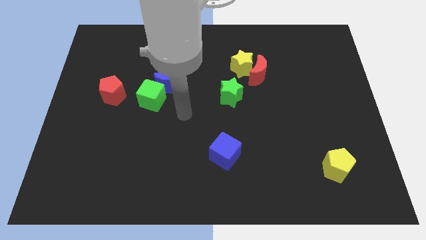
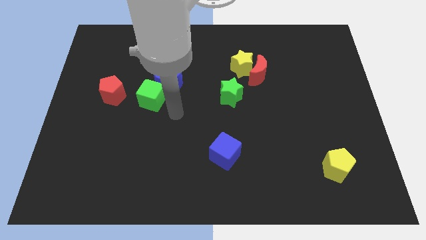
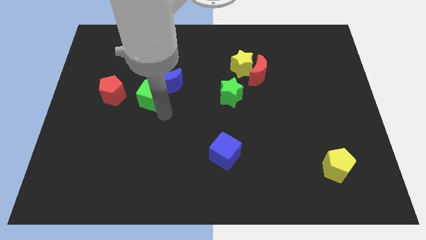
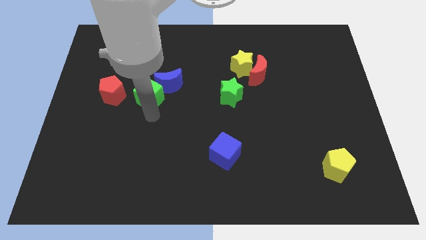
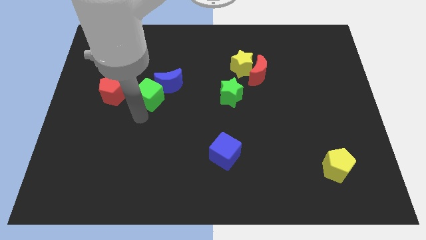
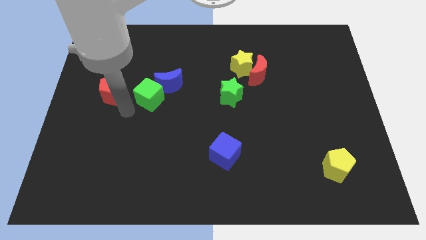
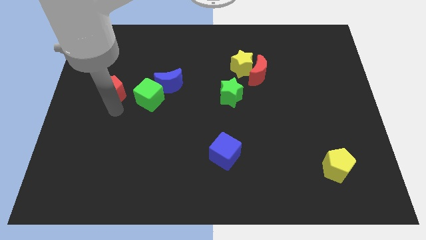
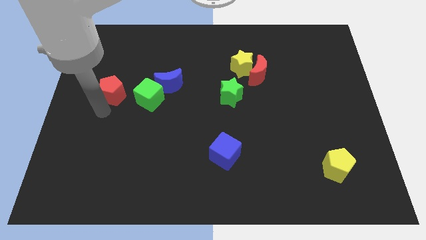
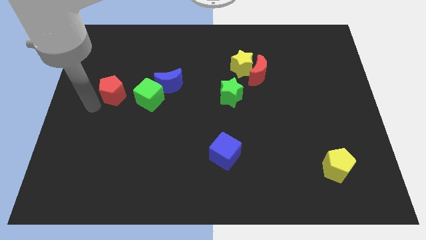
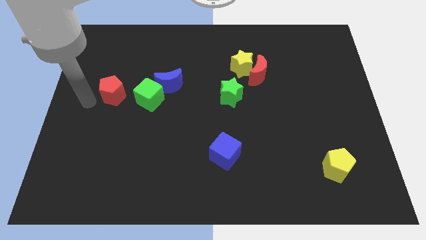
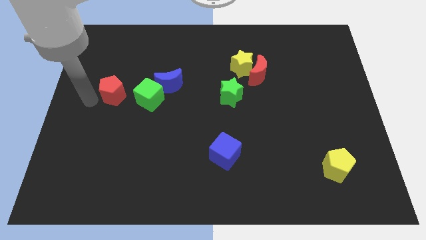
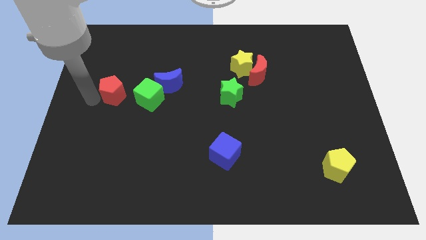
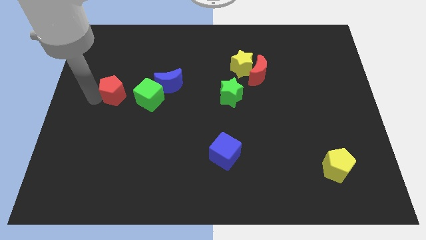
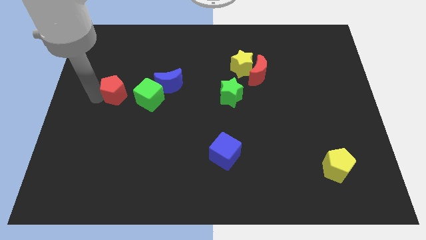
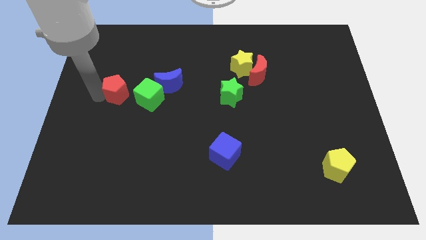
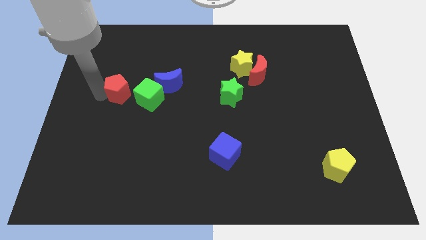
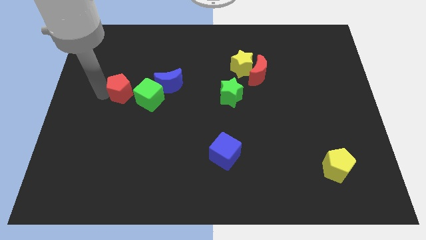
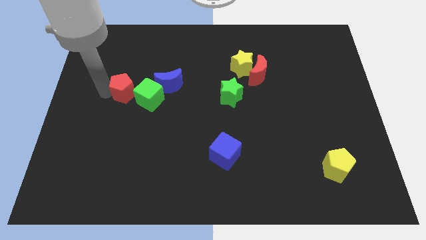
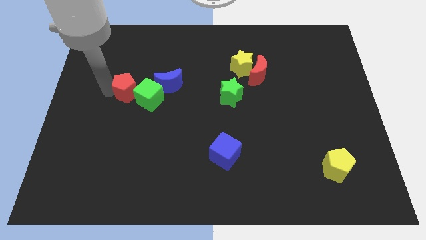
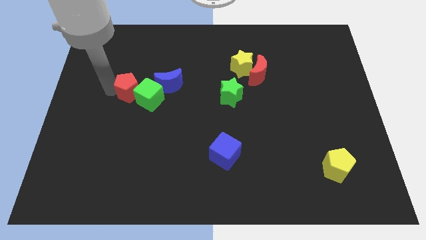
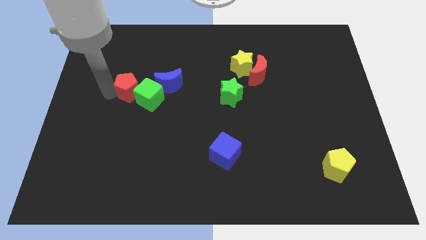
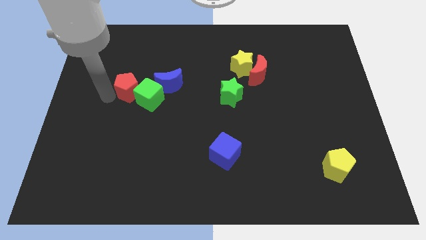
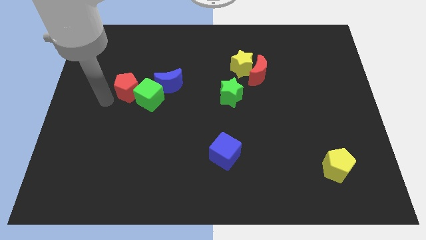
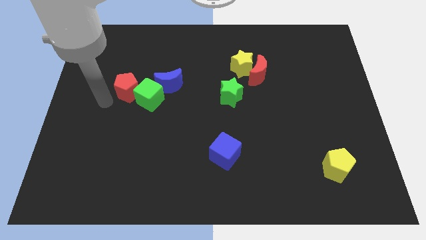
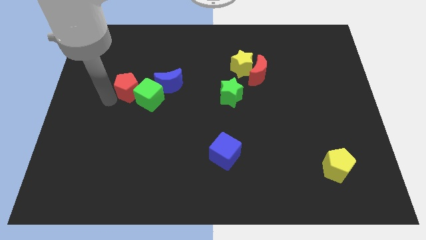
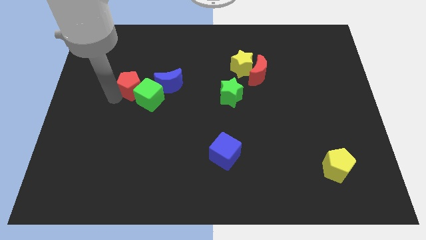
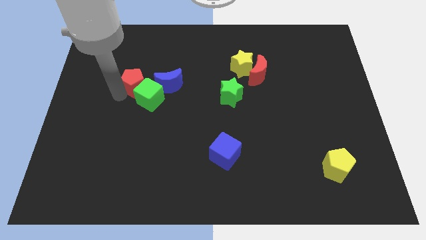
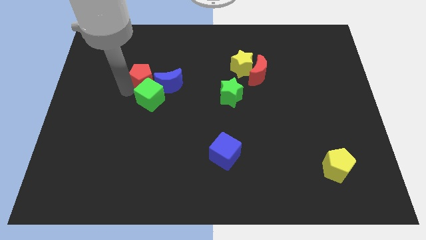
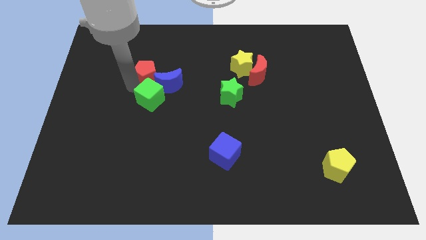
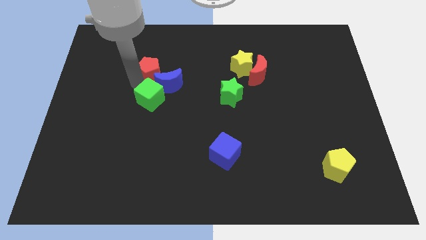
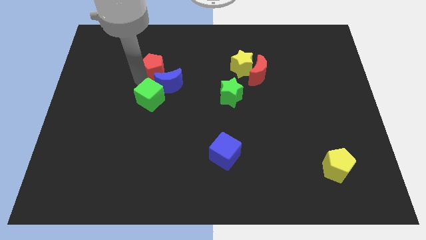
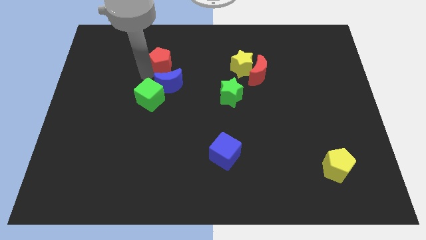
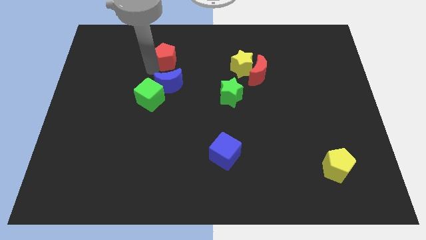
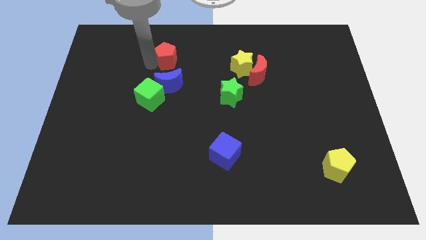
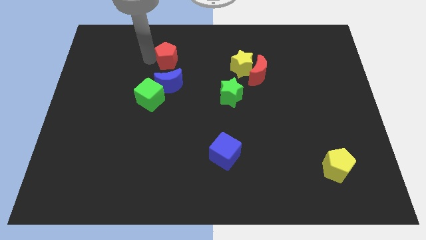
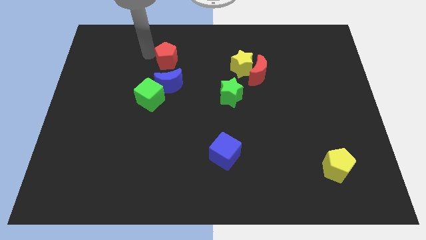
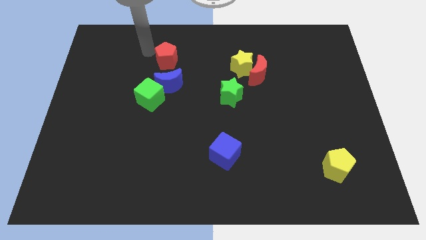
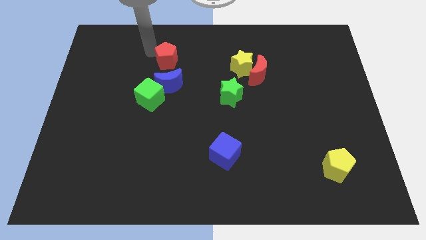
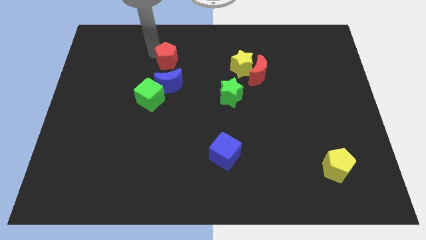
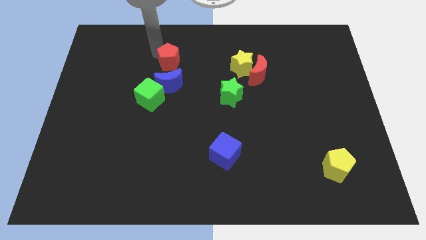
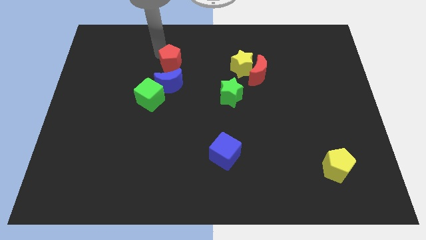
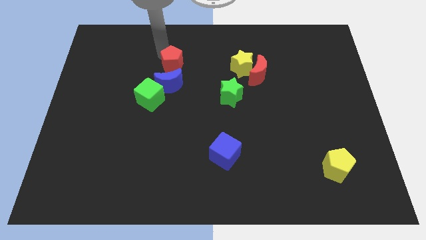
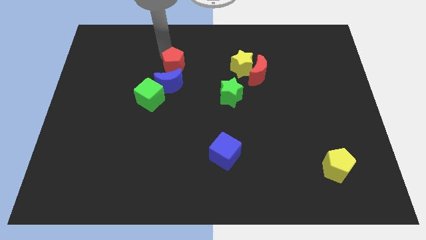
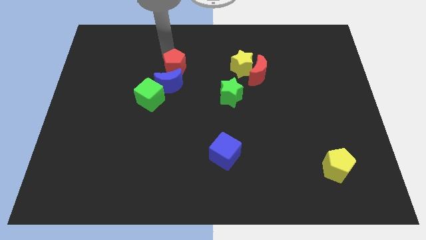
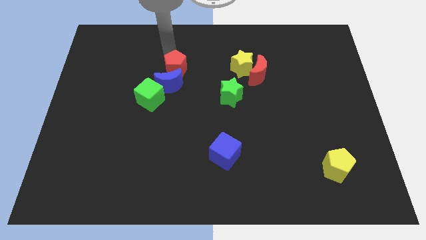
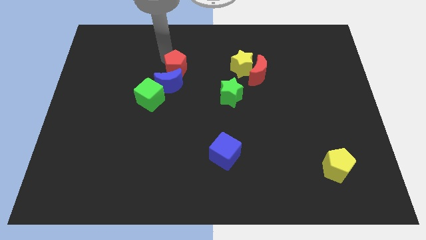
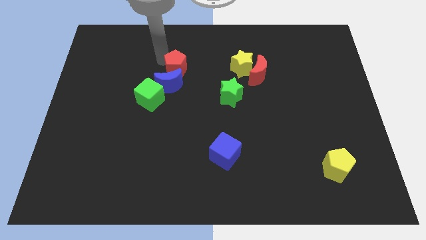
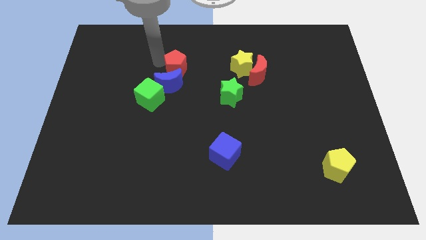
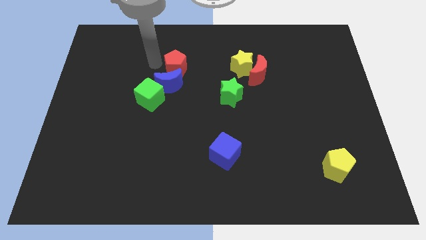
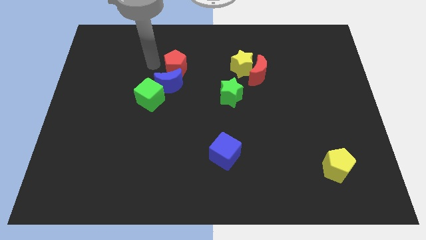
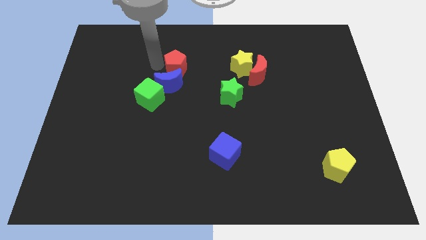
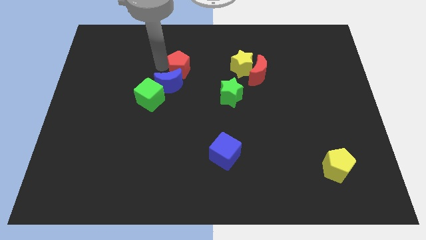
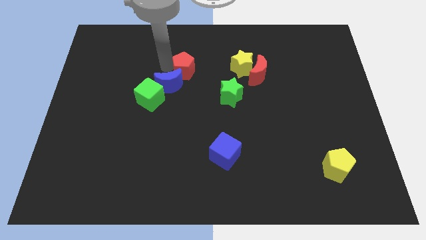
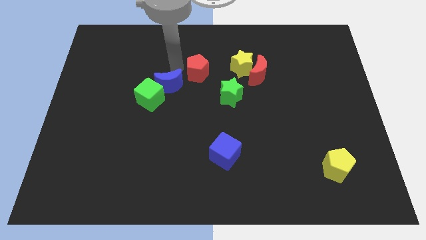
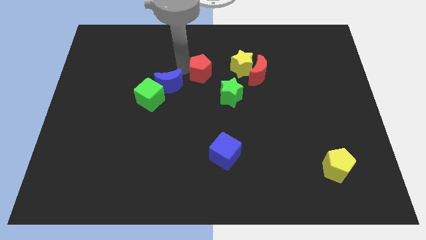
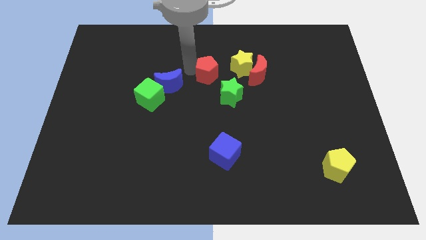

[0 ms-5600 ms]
put the red pentagon to the bottom left of the yellow star

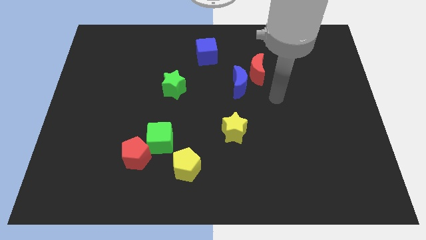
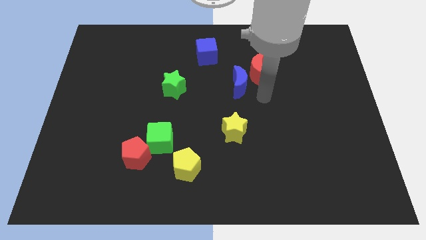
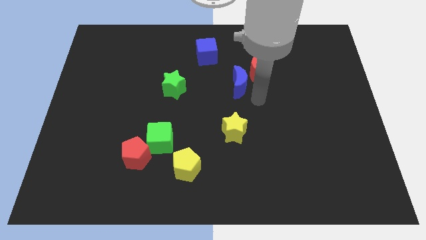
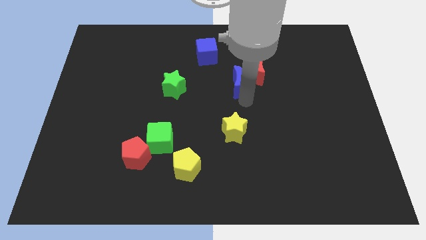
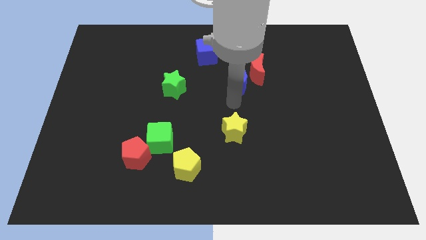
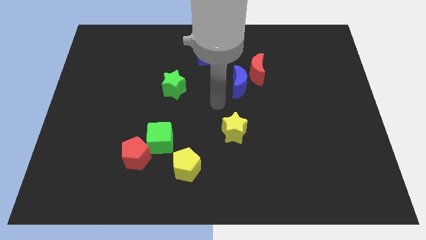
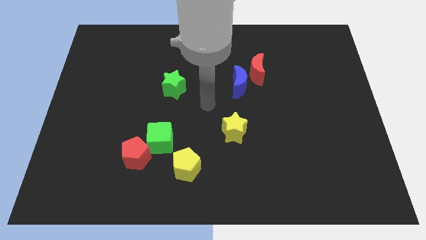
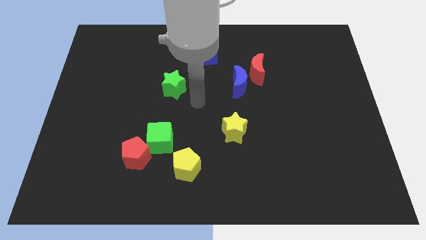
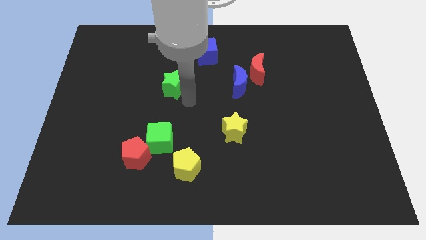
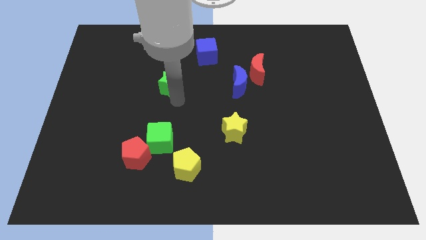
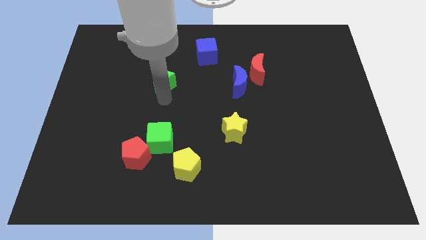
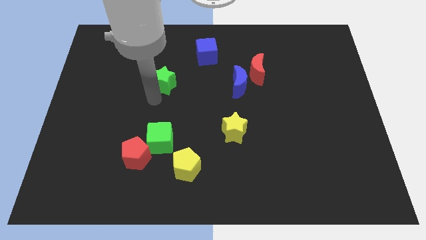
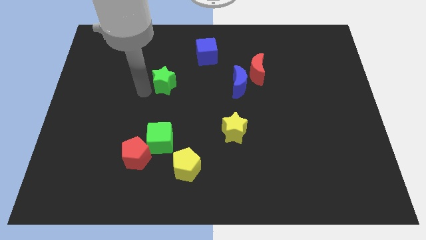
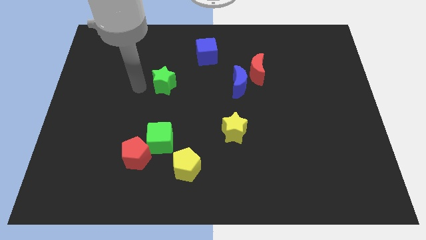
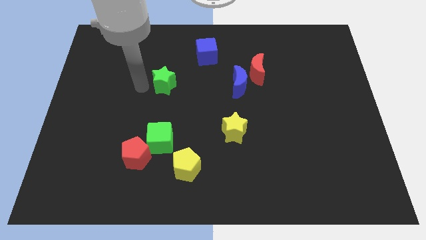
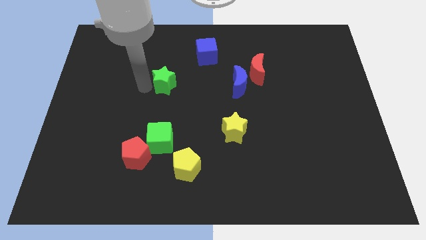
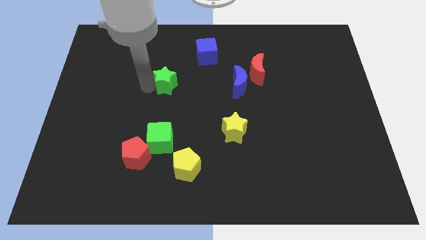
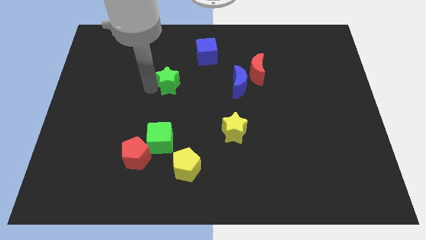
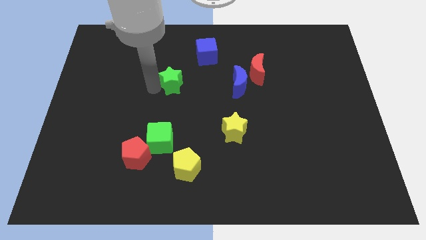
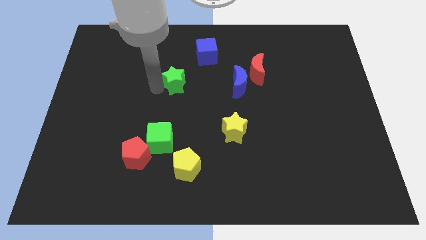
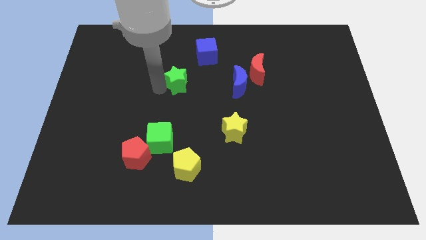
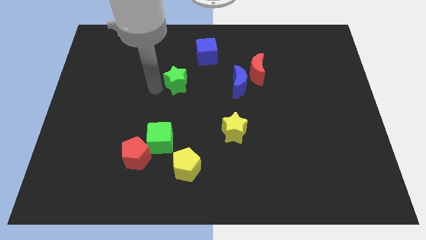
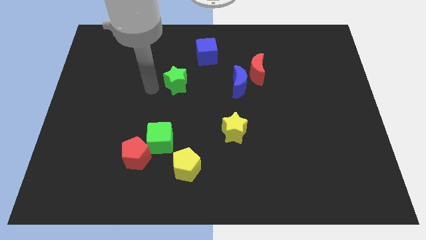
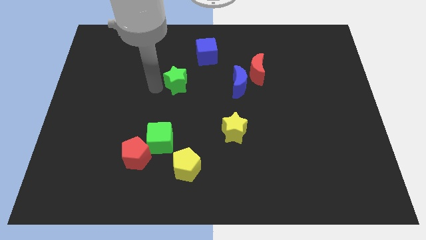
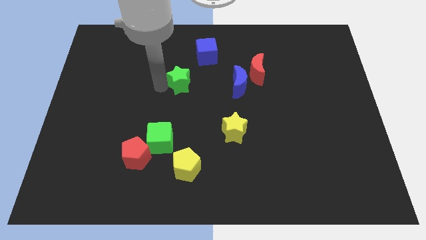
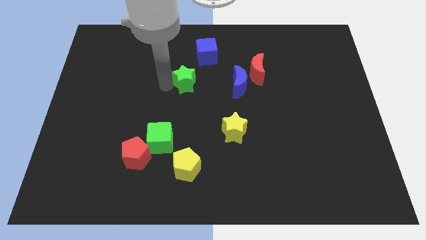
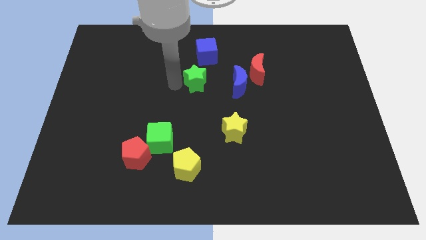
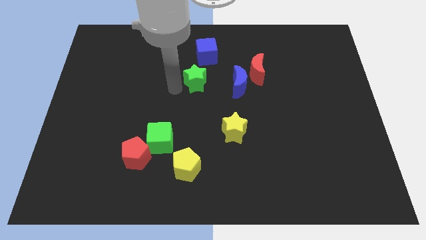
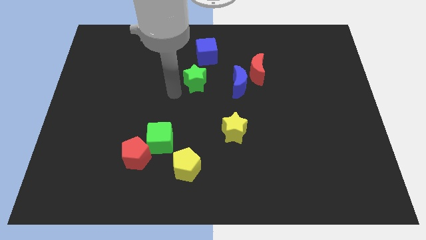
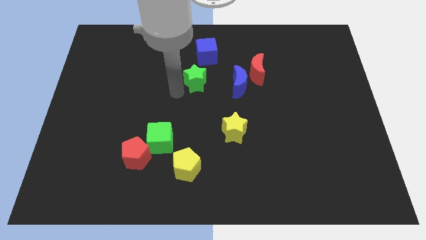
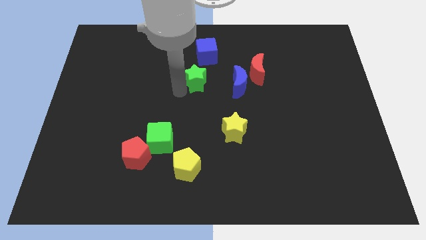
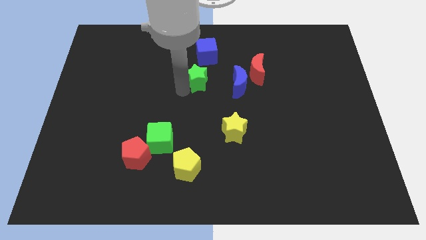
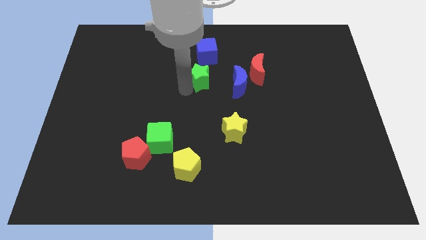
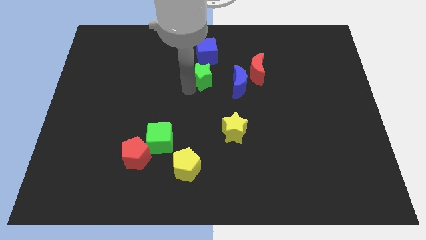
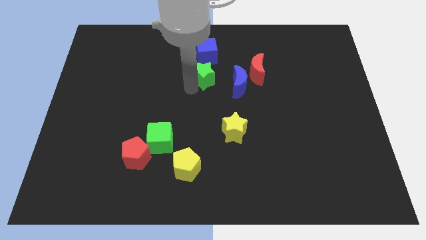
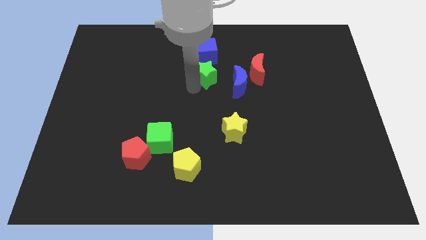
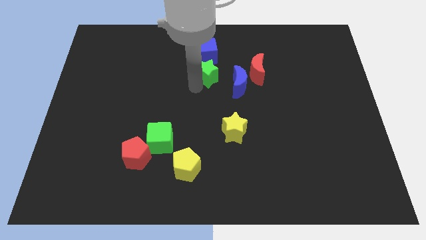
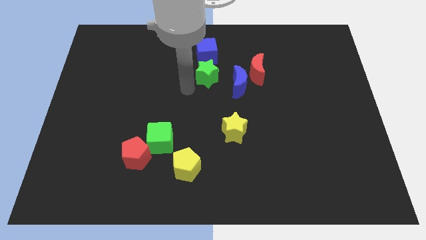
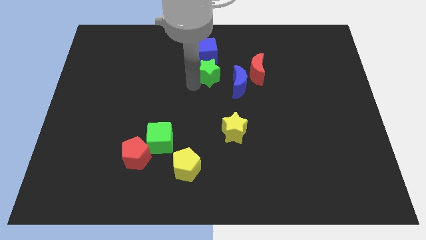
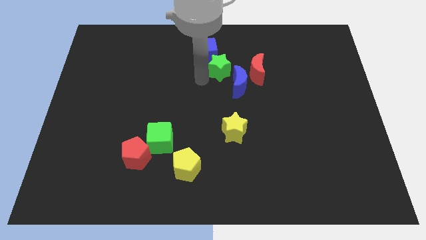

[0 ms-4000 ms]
slide the green star above the blue moon
